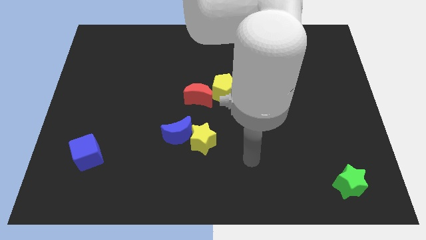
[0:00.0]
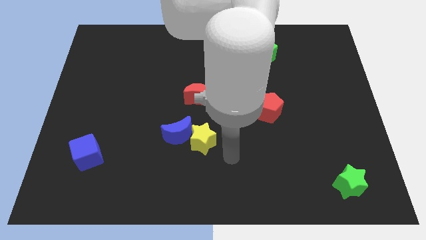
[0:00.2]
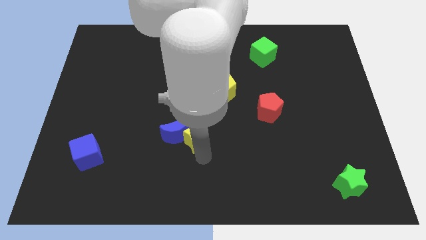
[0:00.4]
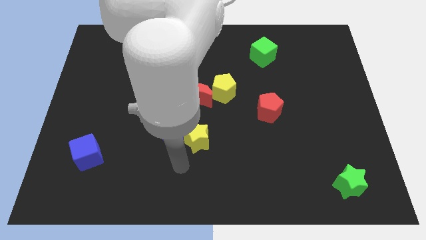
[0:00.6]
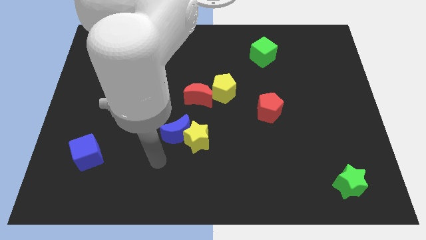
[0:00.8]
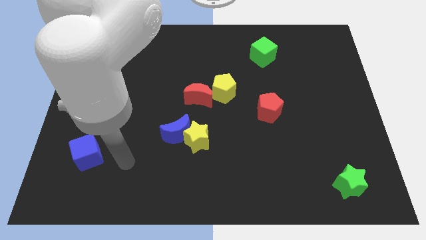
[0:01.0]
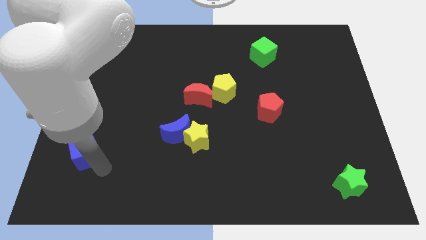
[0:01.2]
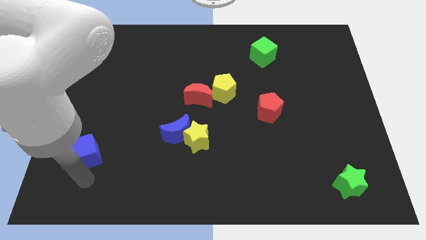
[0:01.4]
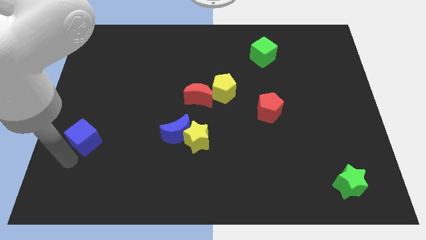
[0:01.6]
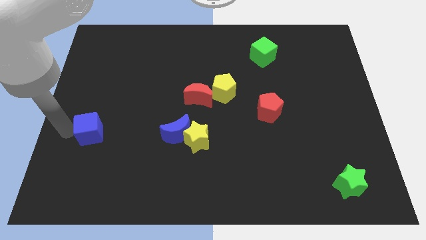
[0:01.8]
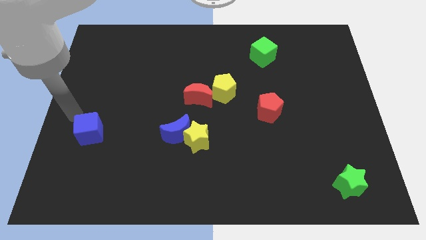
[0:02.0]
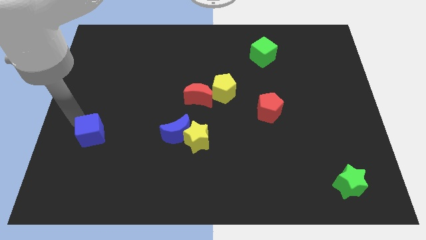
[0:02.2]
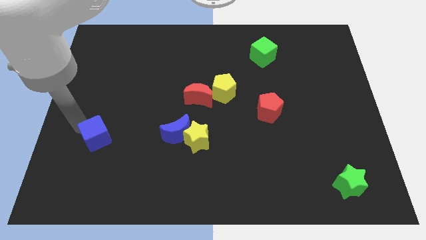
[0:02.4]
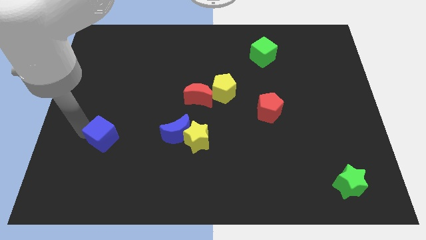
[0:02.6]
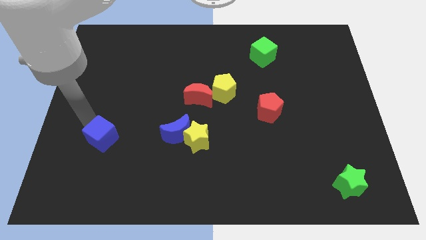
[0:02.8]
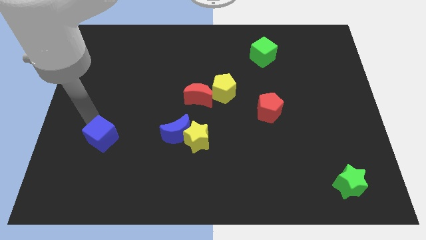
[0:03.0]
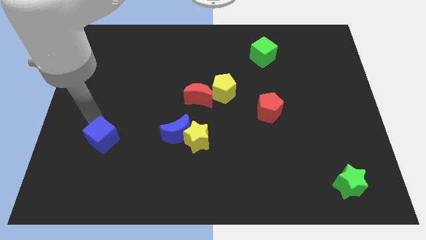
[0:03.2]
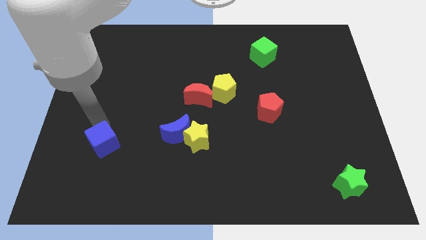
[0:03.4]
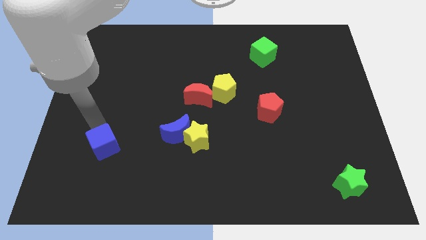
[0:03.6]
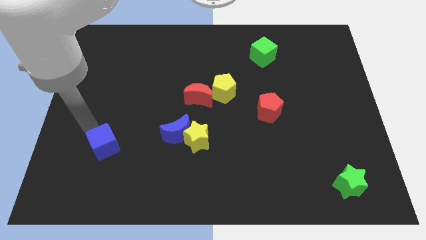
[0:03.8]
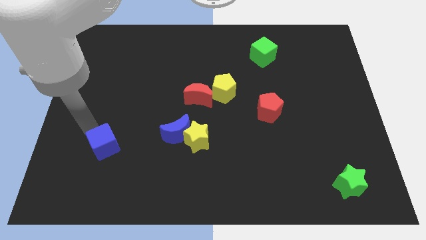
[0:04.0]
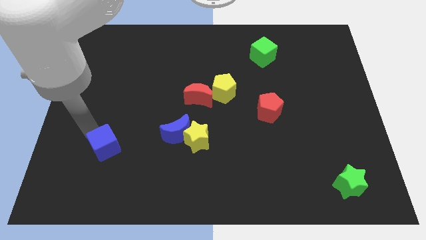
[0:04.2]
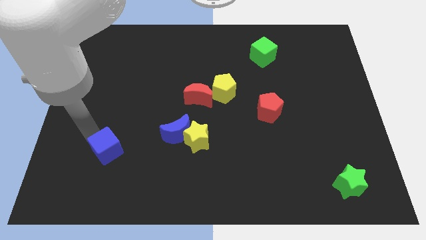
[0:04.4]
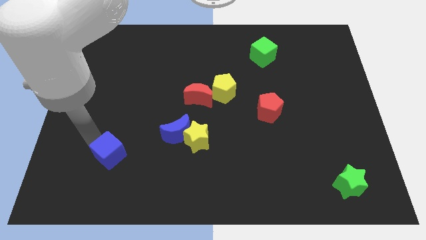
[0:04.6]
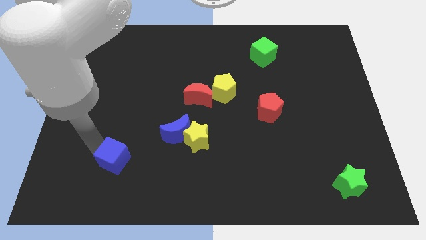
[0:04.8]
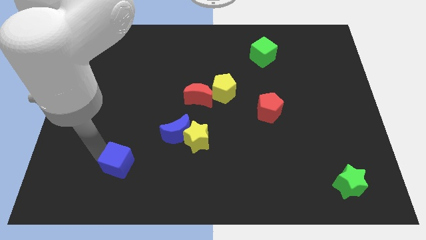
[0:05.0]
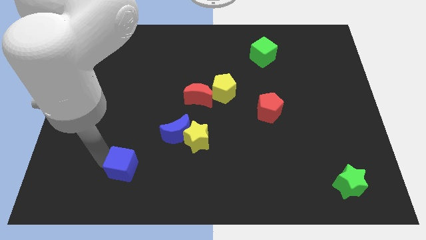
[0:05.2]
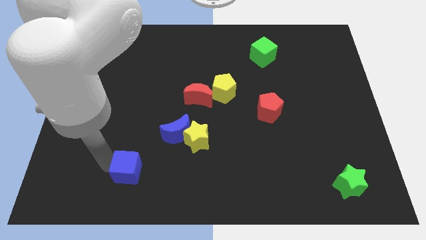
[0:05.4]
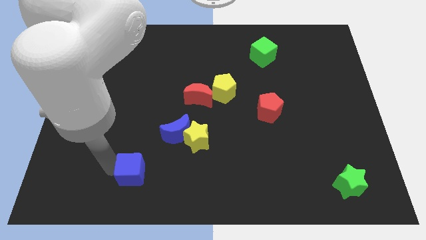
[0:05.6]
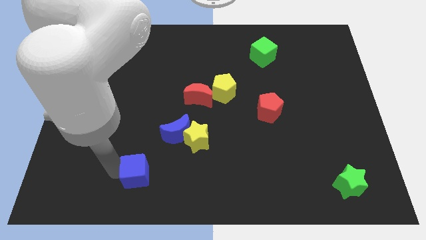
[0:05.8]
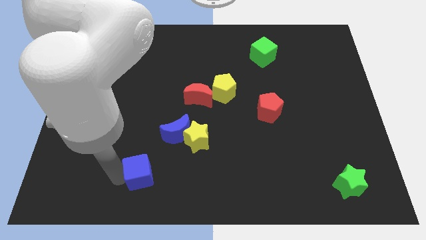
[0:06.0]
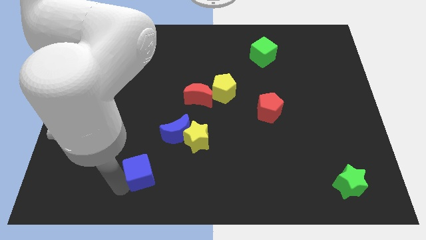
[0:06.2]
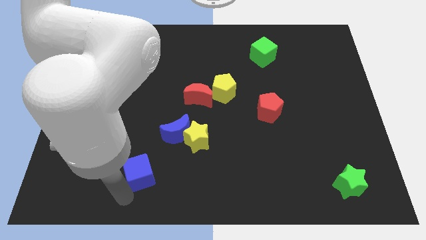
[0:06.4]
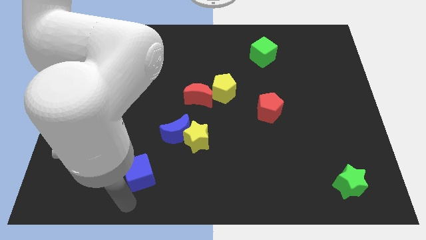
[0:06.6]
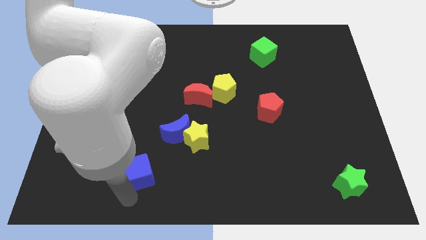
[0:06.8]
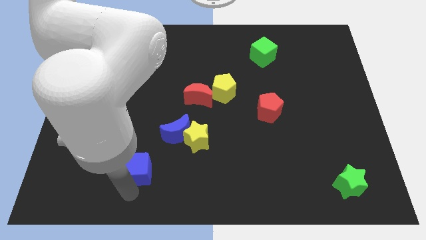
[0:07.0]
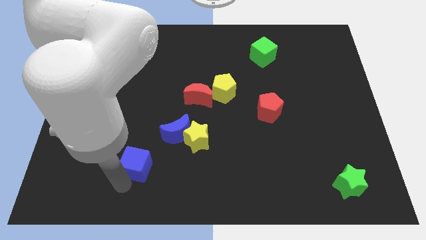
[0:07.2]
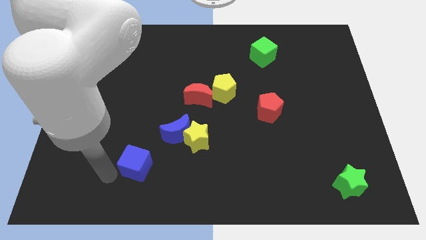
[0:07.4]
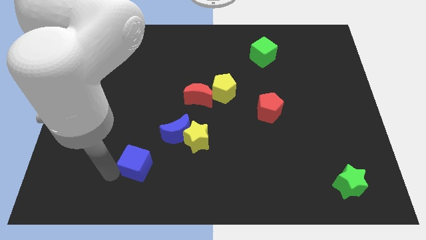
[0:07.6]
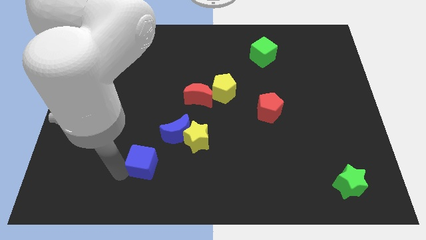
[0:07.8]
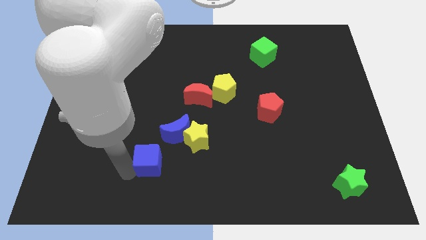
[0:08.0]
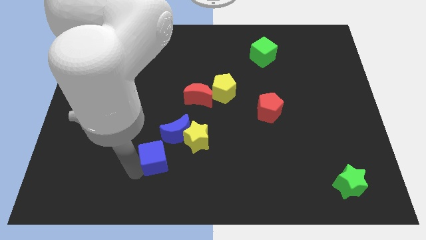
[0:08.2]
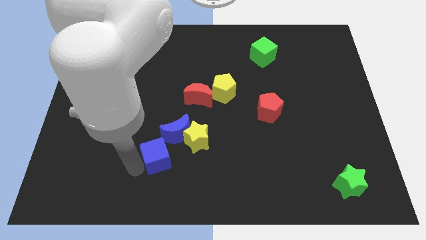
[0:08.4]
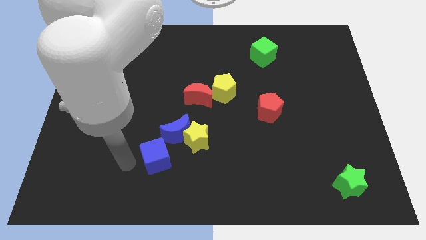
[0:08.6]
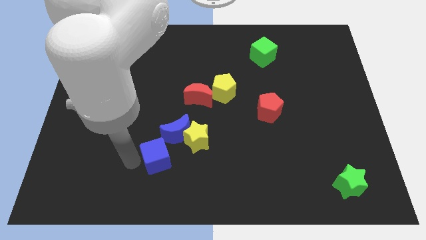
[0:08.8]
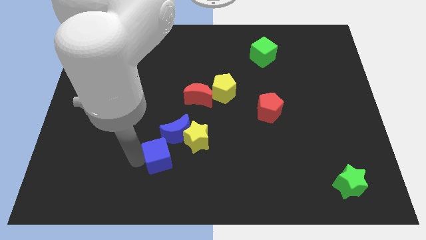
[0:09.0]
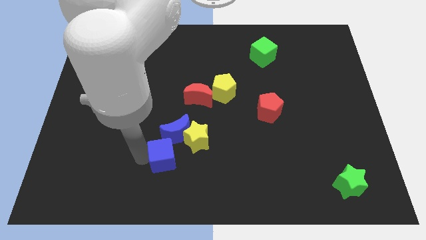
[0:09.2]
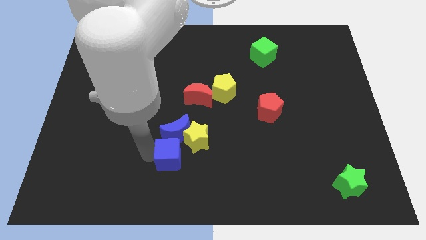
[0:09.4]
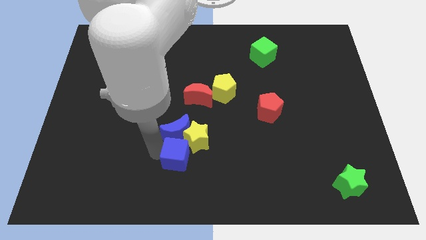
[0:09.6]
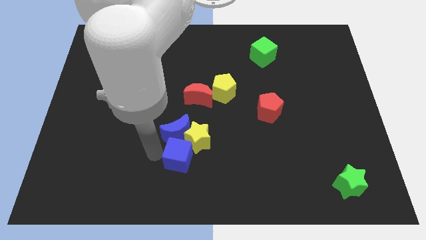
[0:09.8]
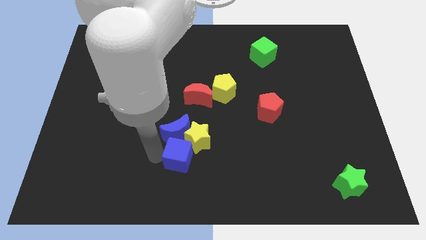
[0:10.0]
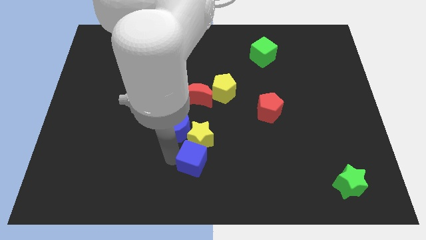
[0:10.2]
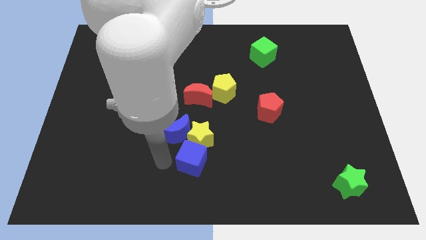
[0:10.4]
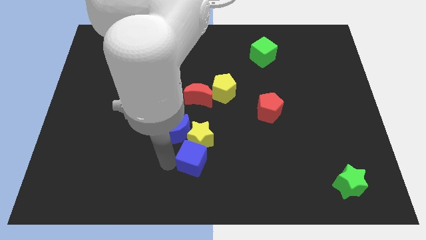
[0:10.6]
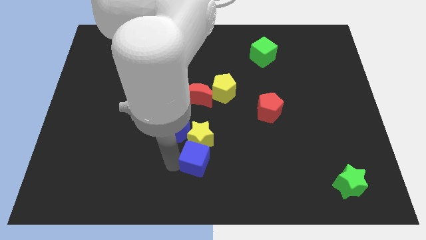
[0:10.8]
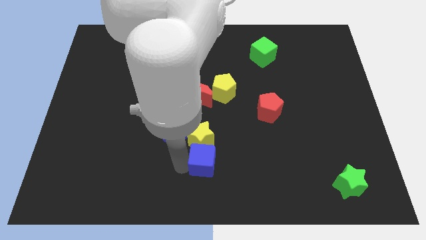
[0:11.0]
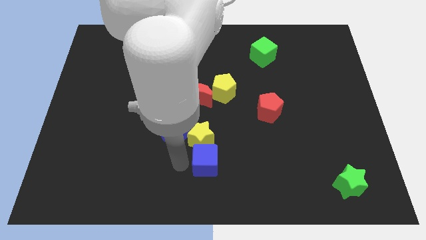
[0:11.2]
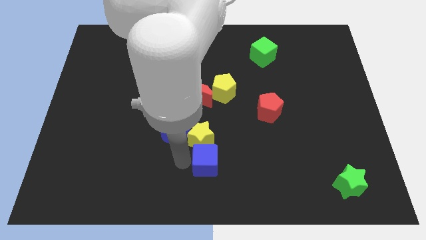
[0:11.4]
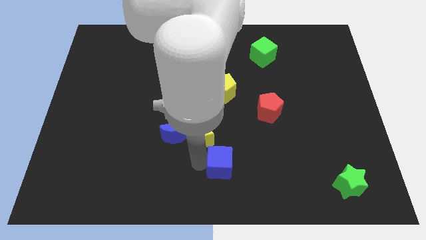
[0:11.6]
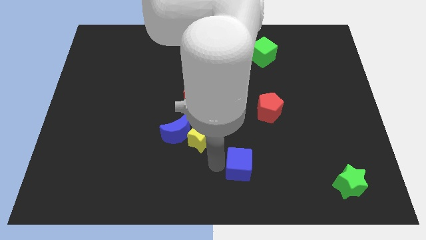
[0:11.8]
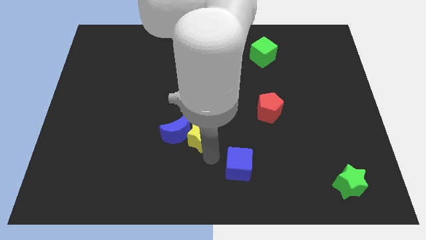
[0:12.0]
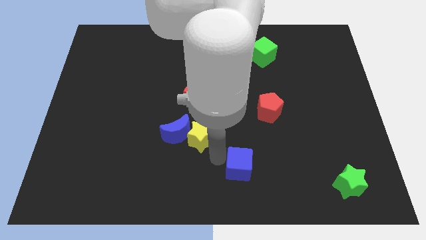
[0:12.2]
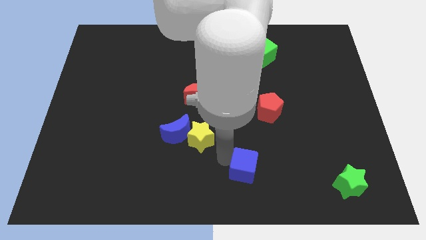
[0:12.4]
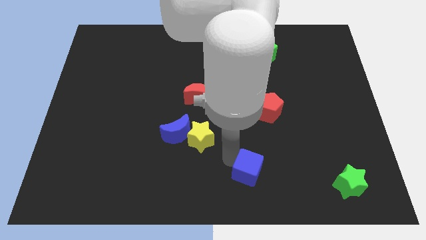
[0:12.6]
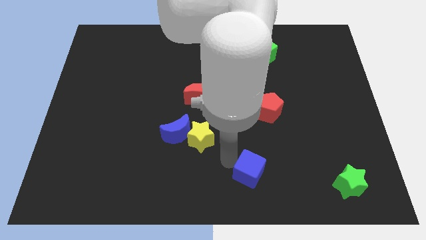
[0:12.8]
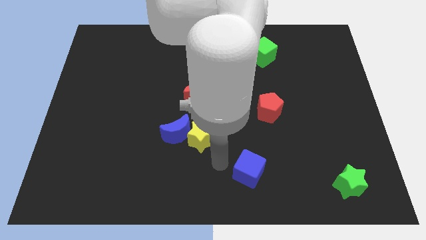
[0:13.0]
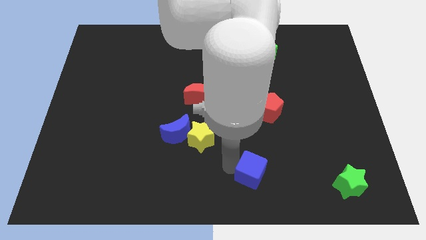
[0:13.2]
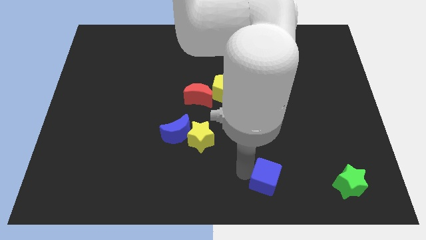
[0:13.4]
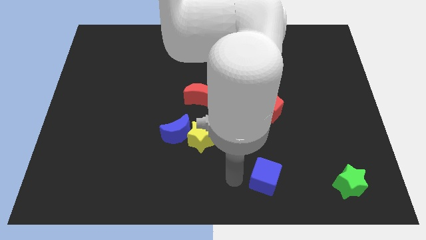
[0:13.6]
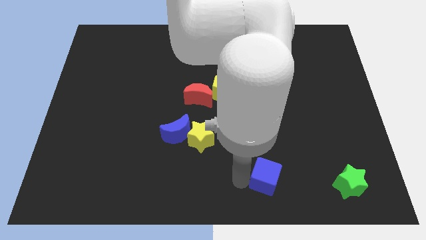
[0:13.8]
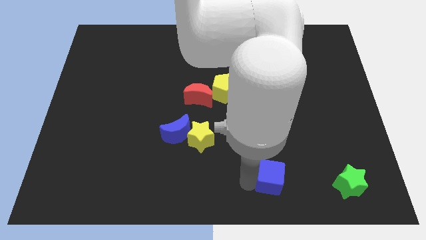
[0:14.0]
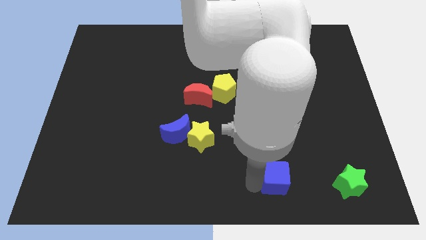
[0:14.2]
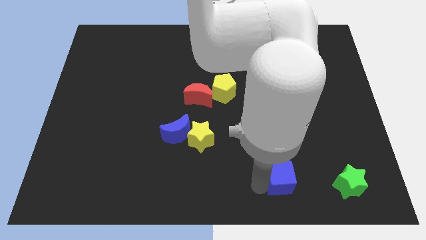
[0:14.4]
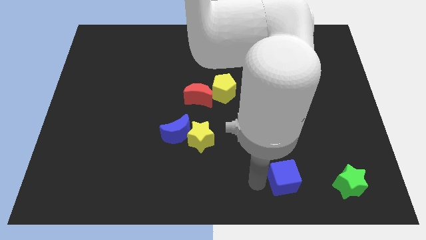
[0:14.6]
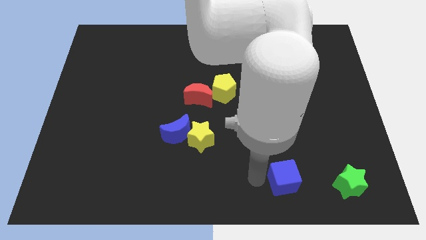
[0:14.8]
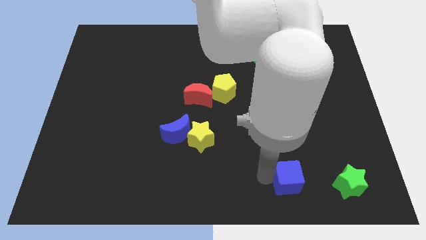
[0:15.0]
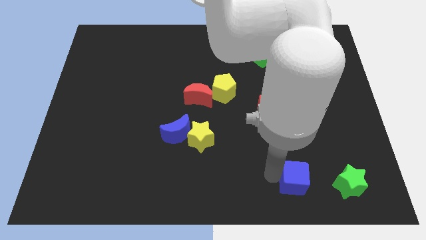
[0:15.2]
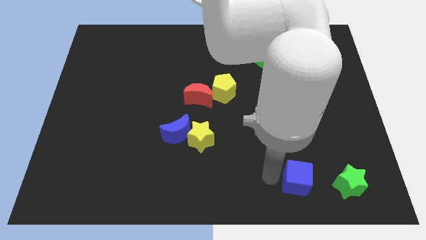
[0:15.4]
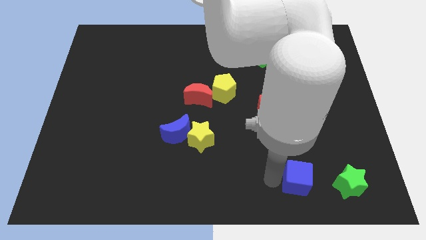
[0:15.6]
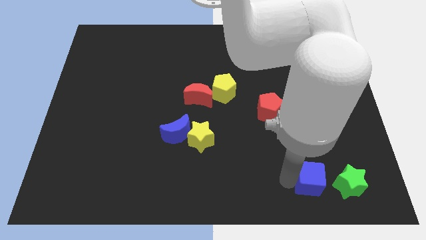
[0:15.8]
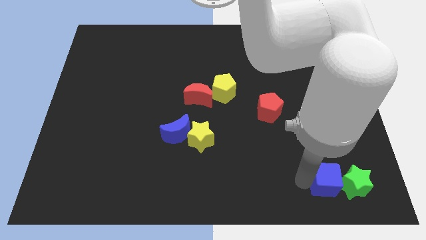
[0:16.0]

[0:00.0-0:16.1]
move the blue cube to the green star
